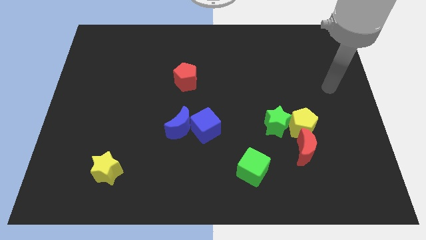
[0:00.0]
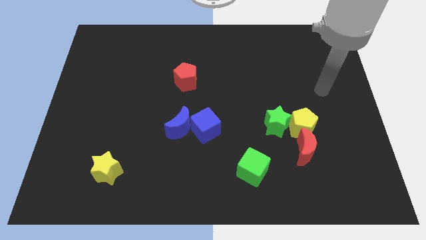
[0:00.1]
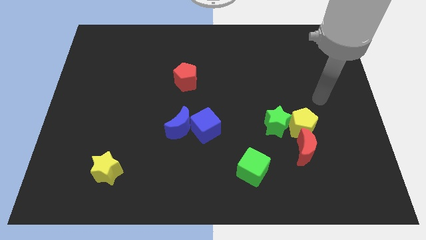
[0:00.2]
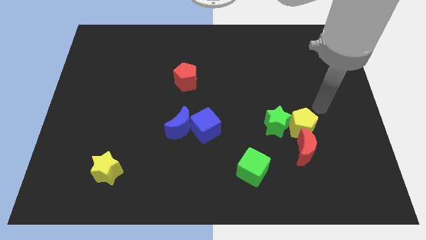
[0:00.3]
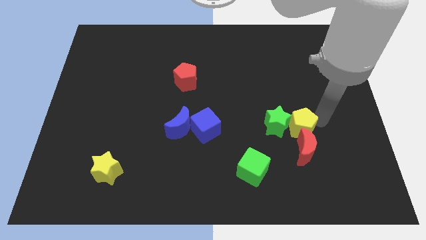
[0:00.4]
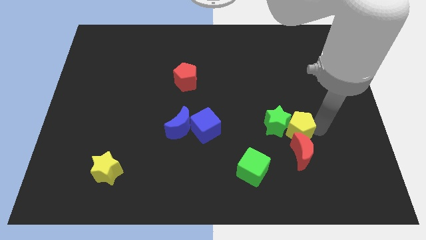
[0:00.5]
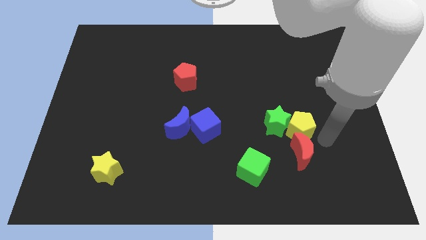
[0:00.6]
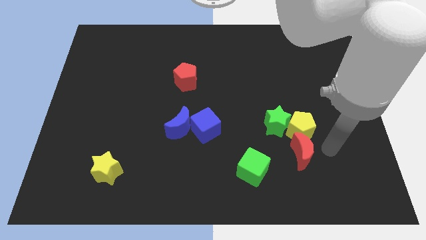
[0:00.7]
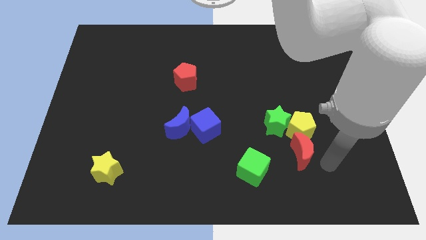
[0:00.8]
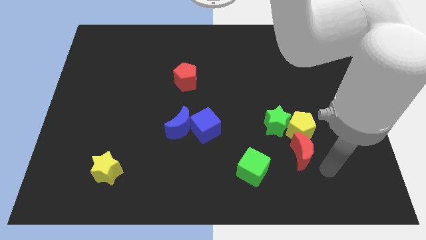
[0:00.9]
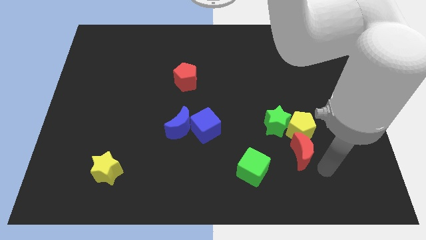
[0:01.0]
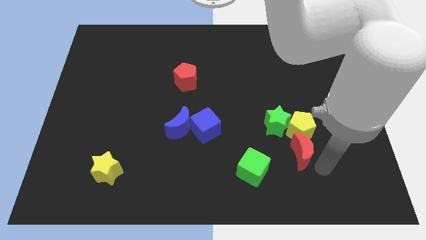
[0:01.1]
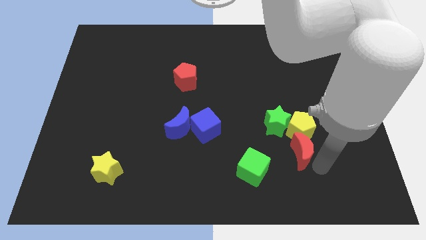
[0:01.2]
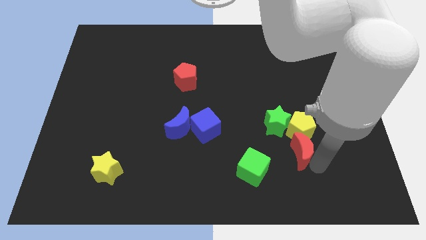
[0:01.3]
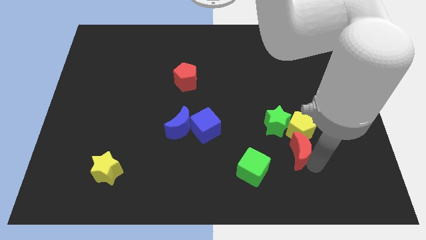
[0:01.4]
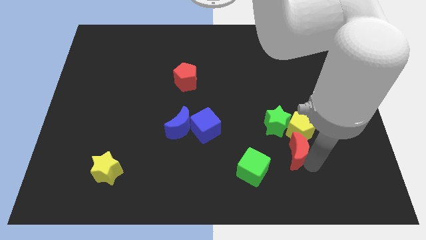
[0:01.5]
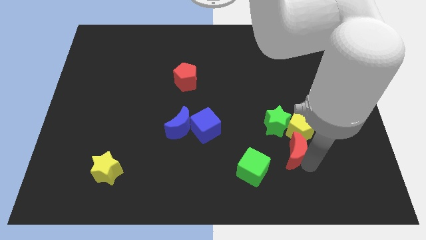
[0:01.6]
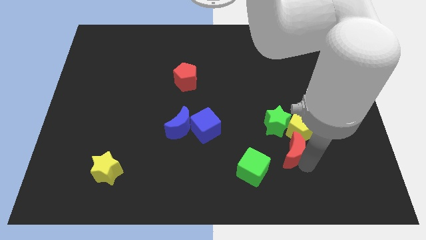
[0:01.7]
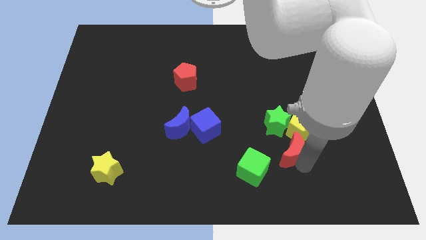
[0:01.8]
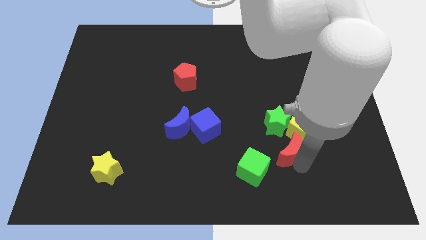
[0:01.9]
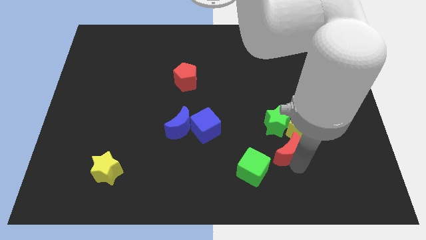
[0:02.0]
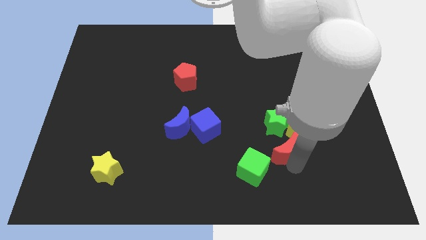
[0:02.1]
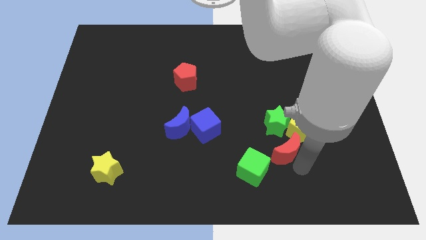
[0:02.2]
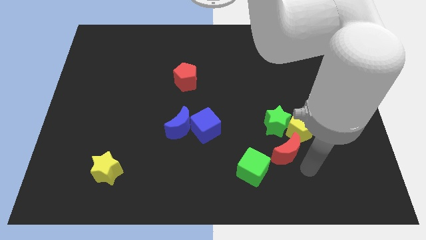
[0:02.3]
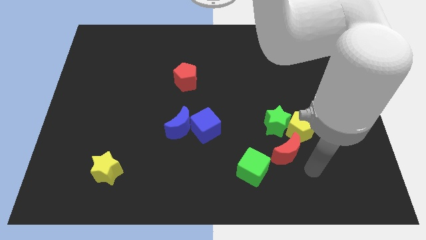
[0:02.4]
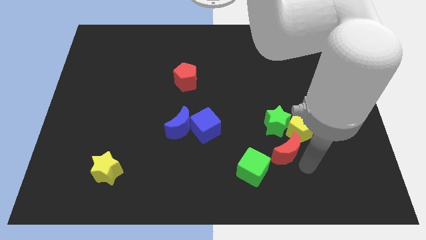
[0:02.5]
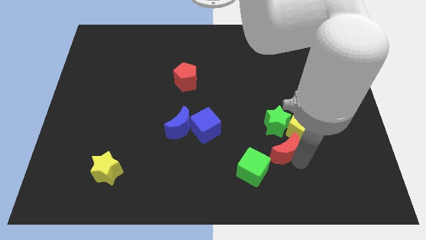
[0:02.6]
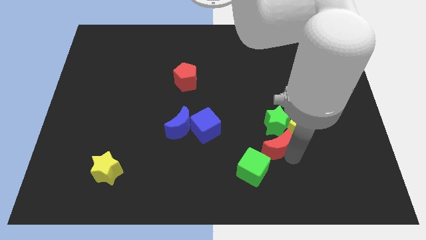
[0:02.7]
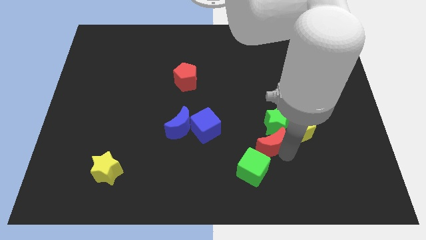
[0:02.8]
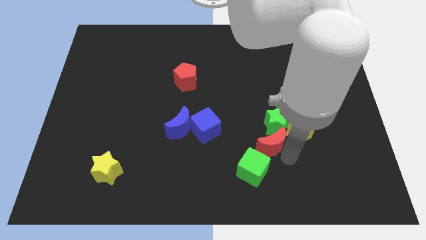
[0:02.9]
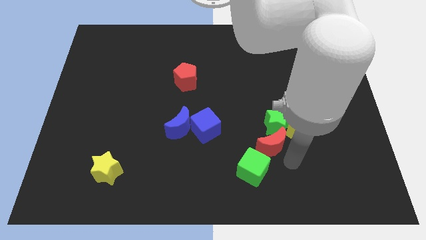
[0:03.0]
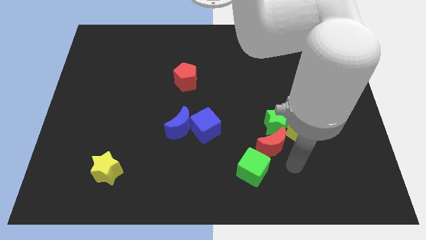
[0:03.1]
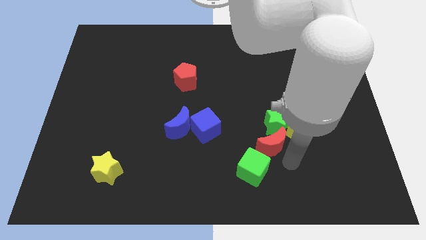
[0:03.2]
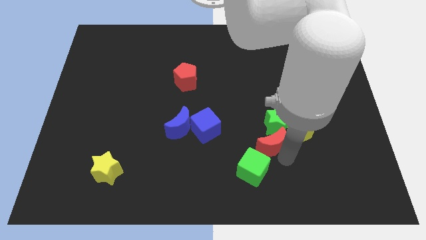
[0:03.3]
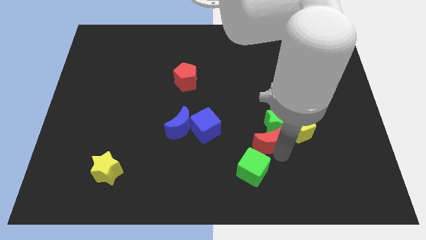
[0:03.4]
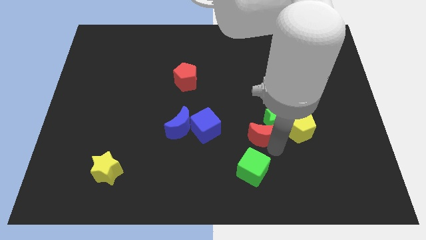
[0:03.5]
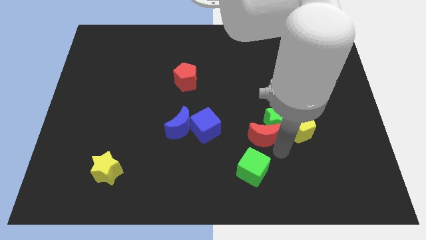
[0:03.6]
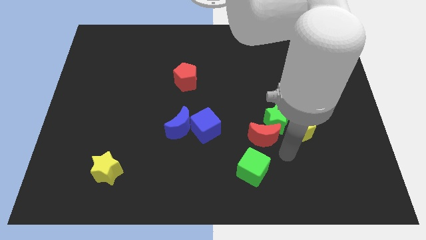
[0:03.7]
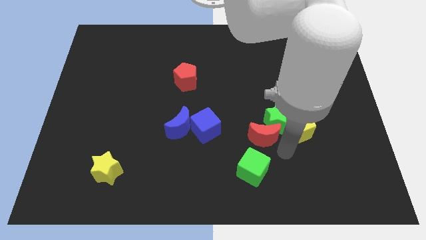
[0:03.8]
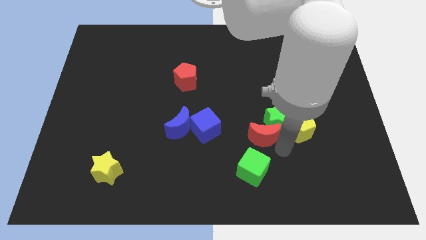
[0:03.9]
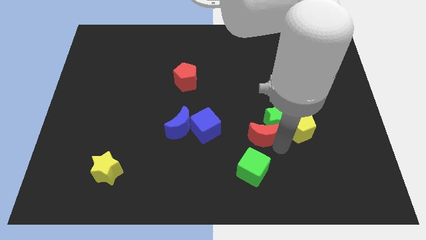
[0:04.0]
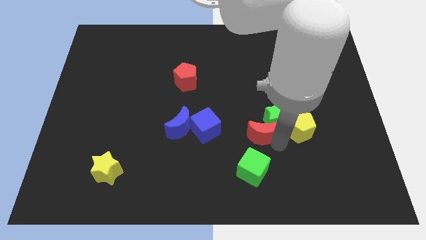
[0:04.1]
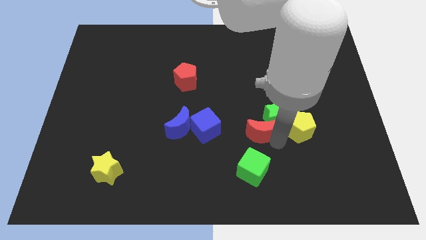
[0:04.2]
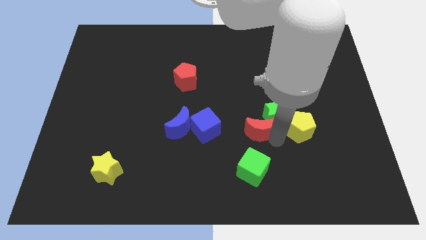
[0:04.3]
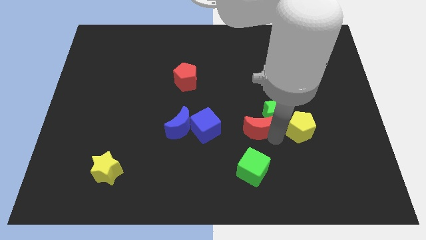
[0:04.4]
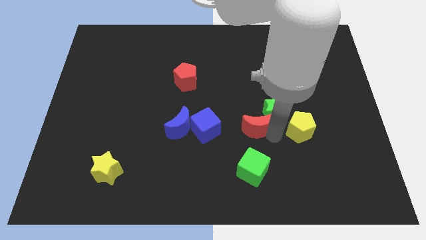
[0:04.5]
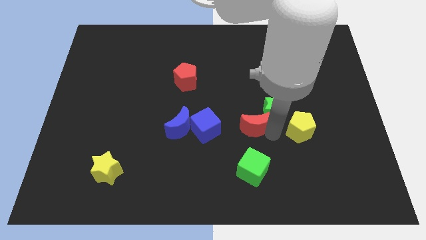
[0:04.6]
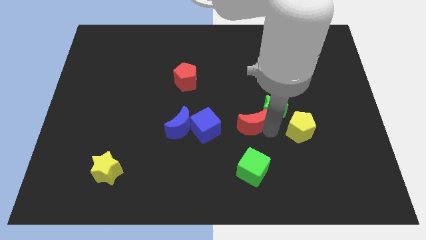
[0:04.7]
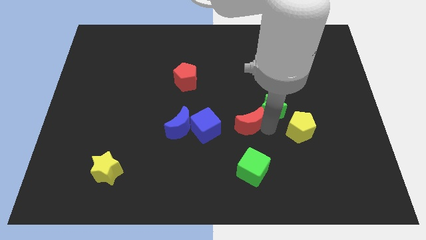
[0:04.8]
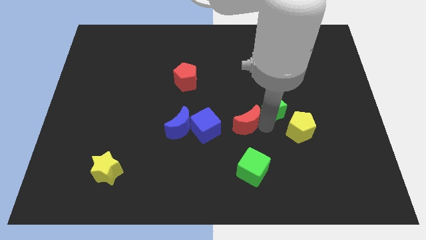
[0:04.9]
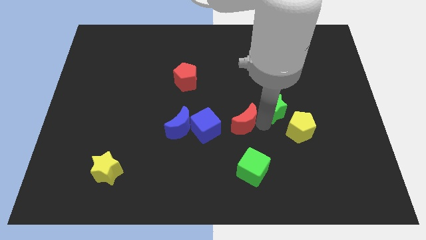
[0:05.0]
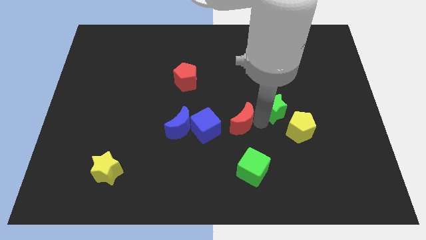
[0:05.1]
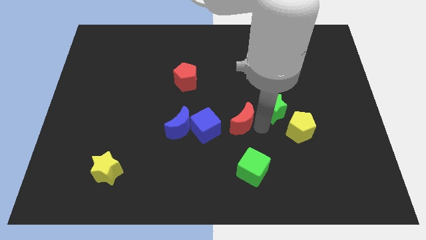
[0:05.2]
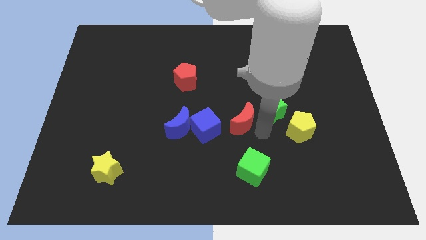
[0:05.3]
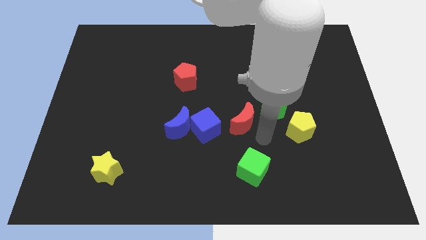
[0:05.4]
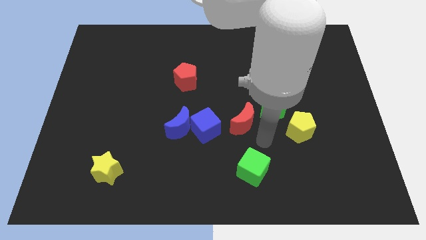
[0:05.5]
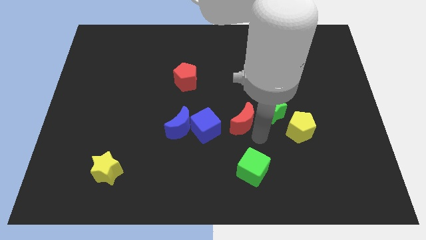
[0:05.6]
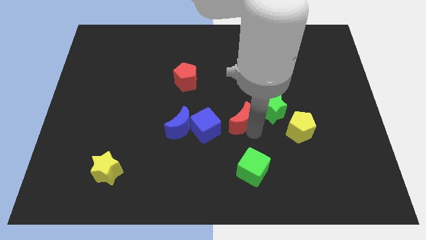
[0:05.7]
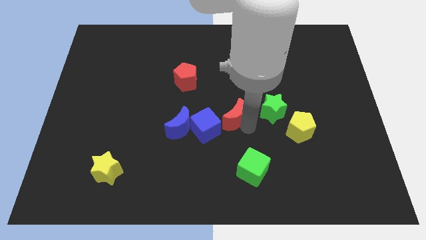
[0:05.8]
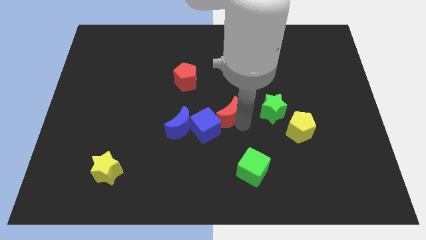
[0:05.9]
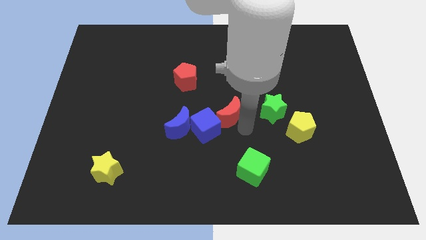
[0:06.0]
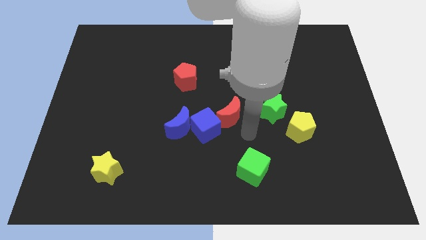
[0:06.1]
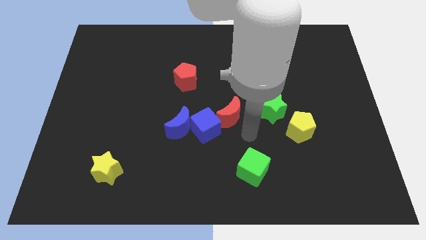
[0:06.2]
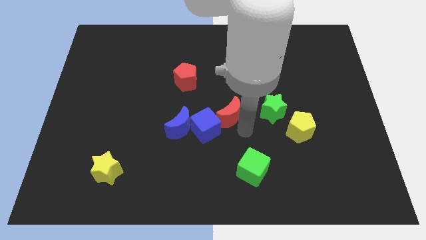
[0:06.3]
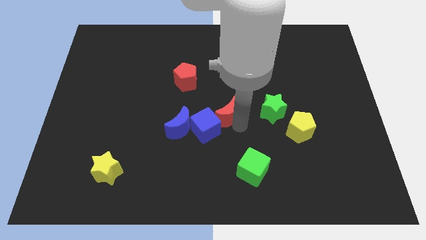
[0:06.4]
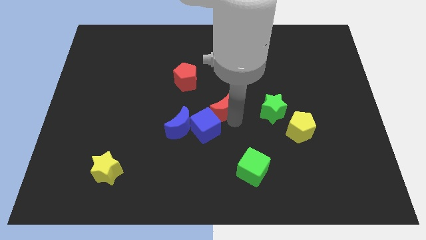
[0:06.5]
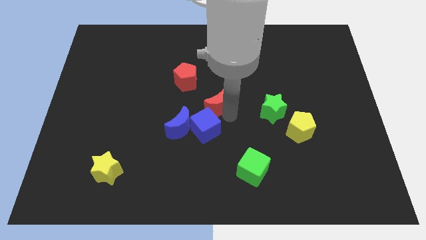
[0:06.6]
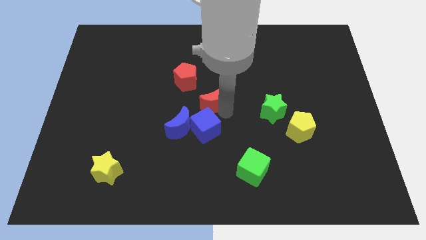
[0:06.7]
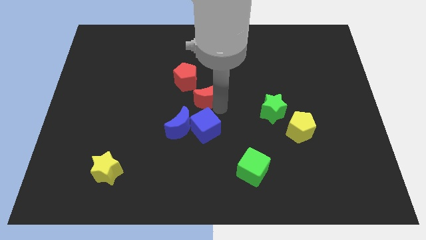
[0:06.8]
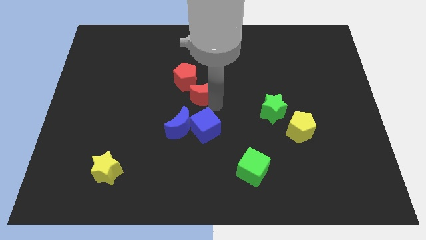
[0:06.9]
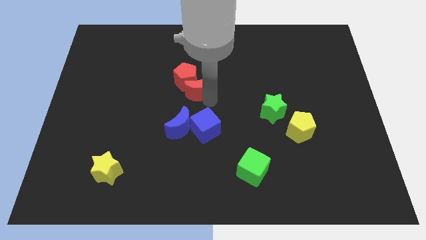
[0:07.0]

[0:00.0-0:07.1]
move the red moon to the red pentagon

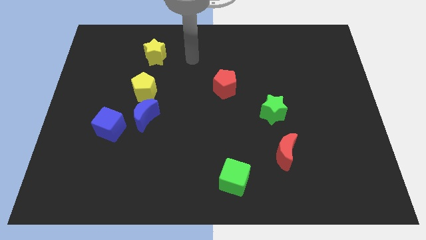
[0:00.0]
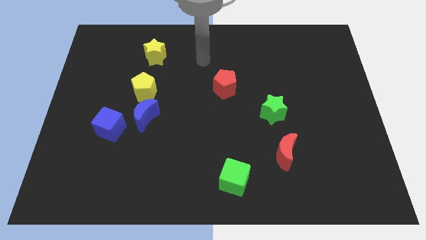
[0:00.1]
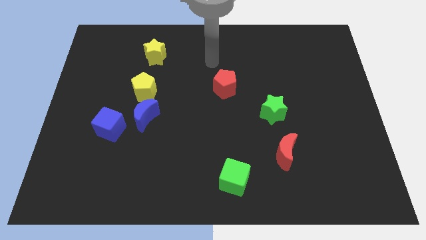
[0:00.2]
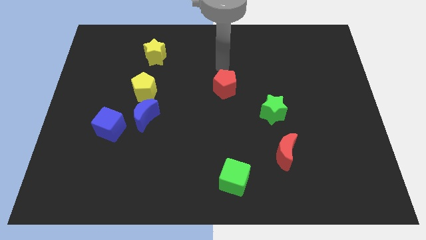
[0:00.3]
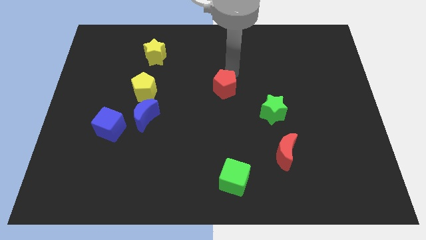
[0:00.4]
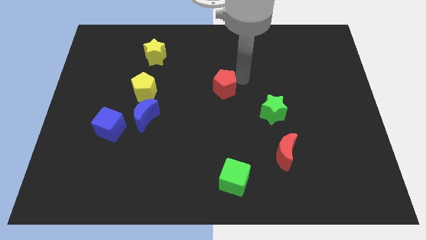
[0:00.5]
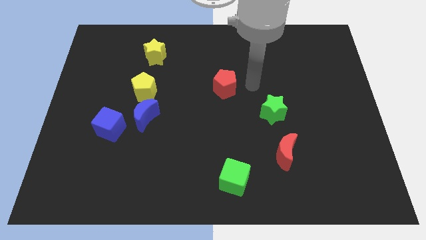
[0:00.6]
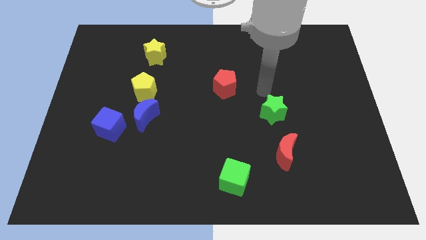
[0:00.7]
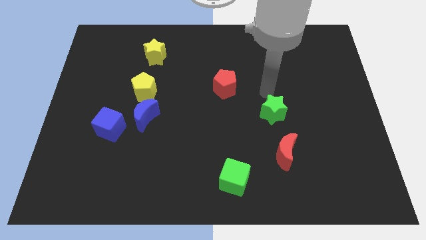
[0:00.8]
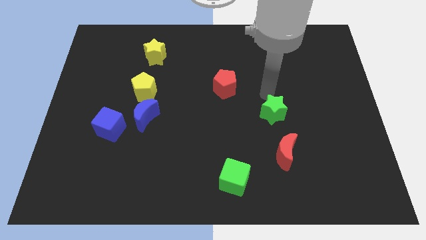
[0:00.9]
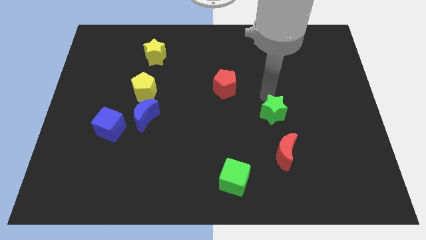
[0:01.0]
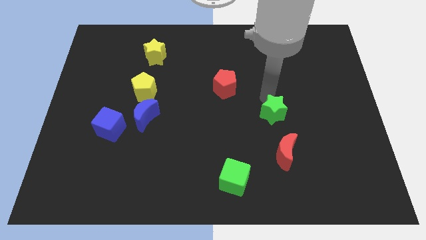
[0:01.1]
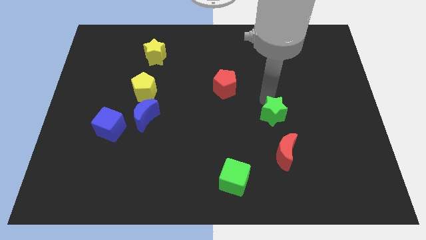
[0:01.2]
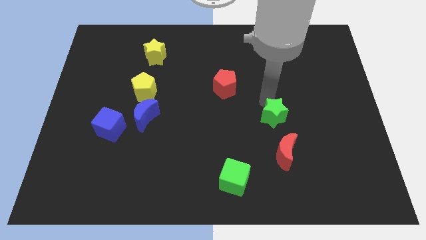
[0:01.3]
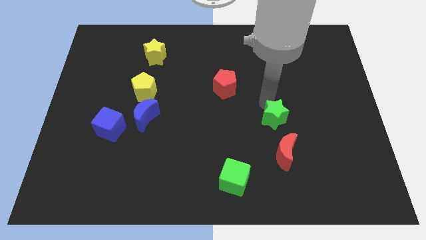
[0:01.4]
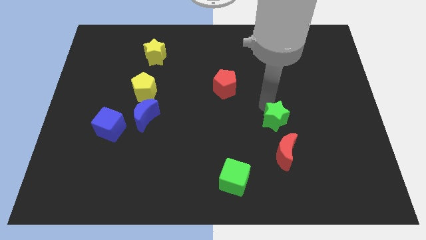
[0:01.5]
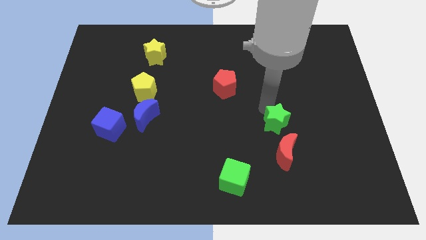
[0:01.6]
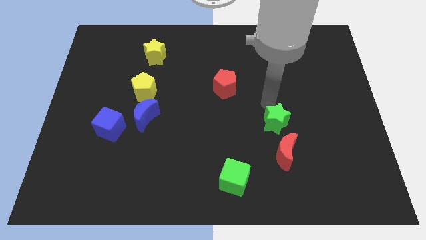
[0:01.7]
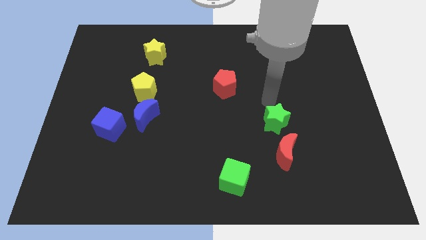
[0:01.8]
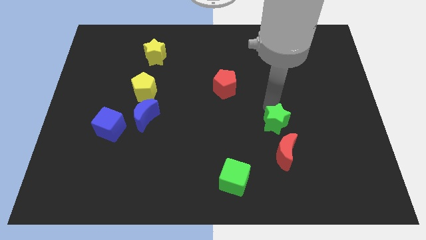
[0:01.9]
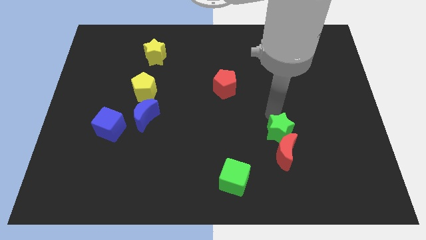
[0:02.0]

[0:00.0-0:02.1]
push the green star to the red moon
